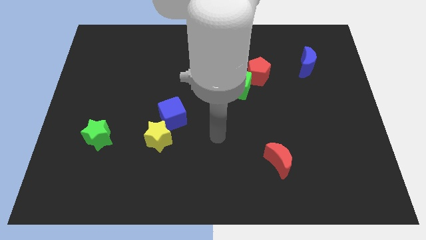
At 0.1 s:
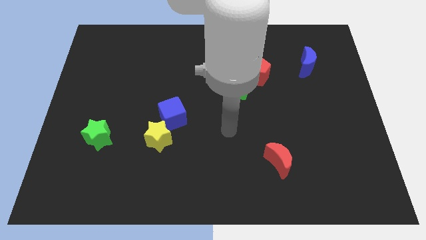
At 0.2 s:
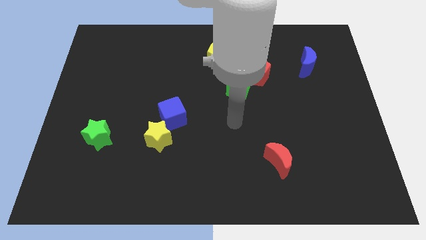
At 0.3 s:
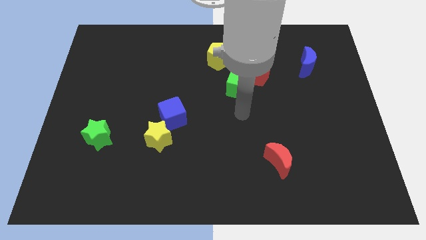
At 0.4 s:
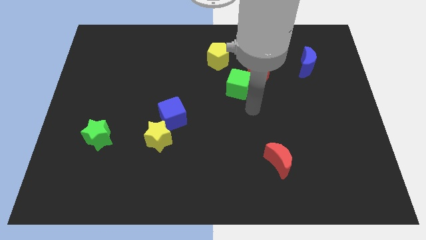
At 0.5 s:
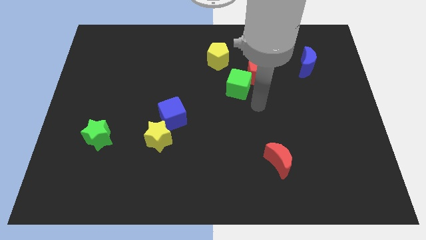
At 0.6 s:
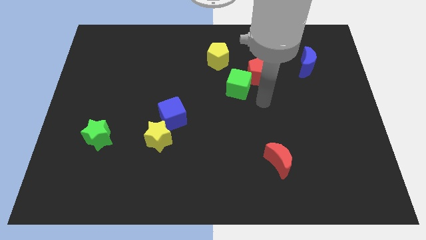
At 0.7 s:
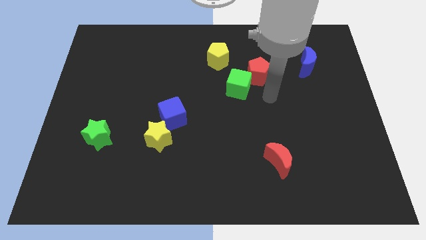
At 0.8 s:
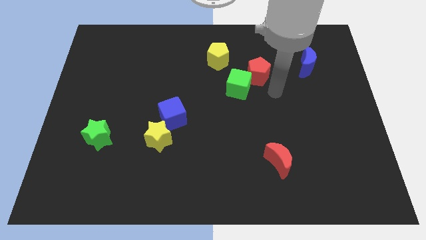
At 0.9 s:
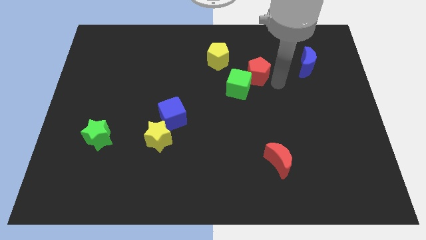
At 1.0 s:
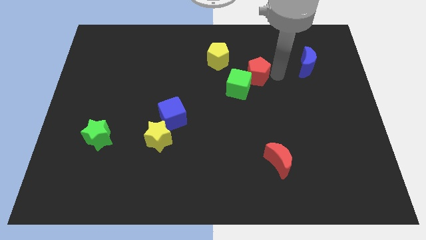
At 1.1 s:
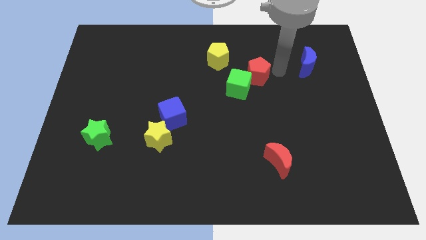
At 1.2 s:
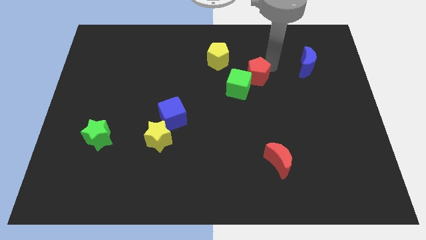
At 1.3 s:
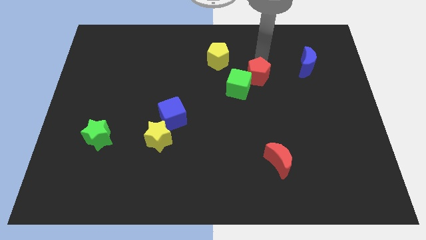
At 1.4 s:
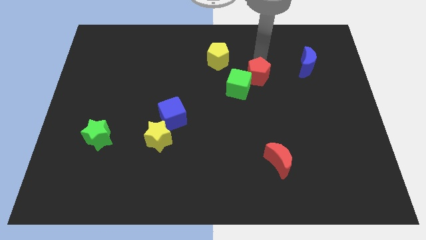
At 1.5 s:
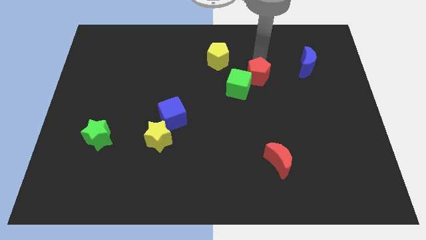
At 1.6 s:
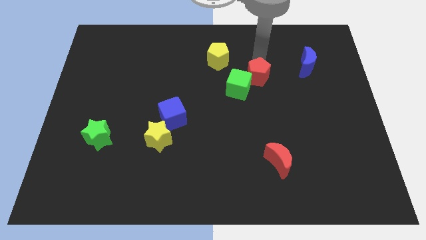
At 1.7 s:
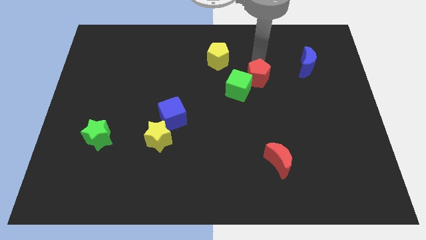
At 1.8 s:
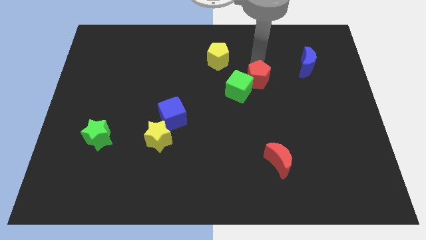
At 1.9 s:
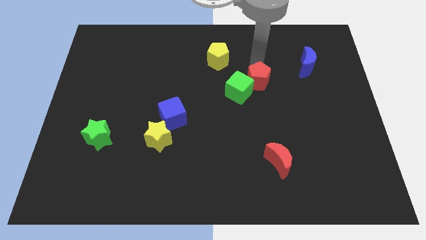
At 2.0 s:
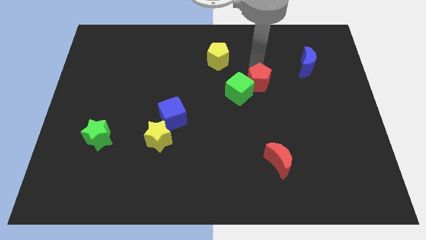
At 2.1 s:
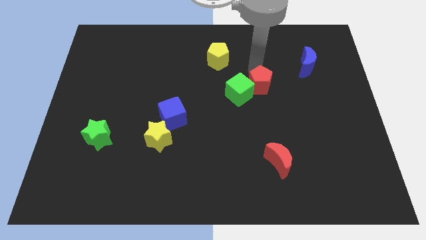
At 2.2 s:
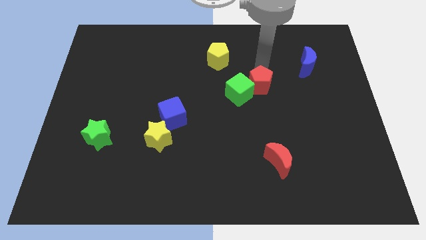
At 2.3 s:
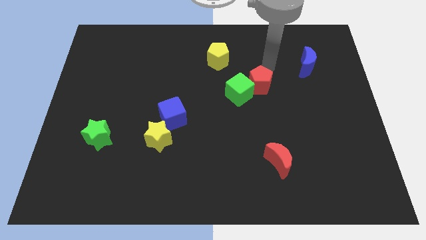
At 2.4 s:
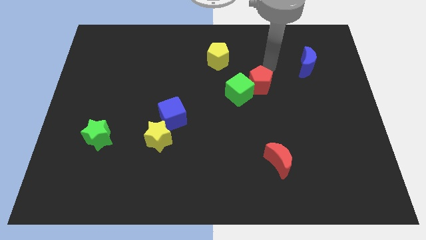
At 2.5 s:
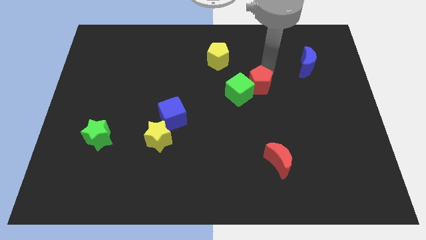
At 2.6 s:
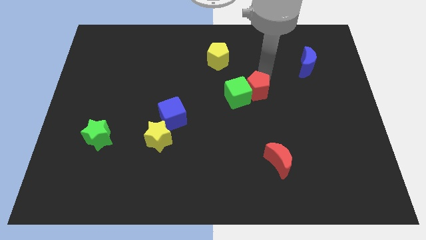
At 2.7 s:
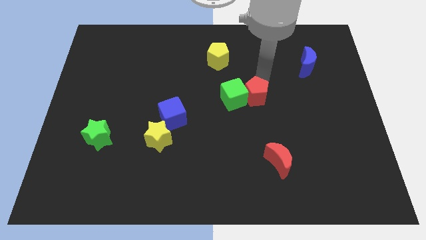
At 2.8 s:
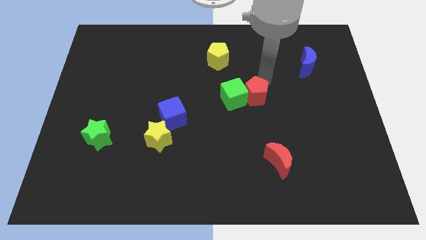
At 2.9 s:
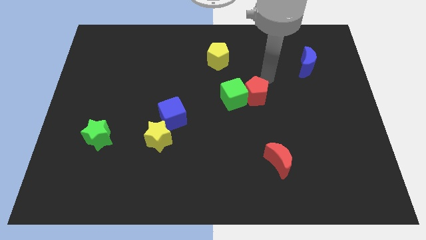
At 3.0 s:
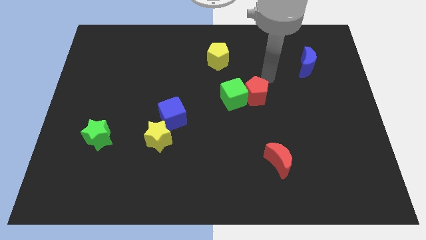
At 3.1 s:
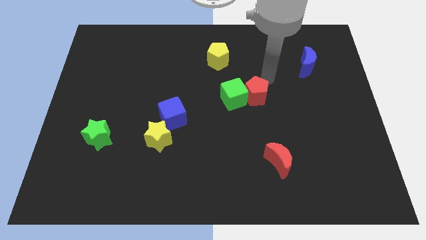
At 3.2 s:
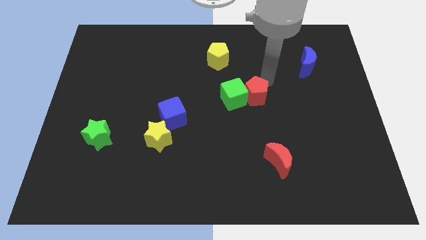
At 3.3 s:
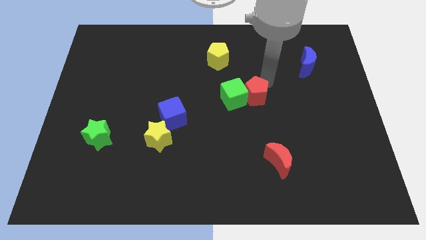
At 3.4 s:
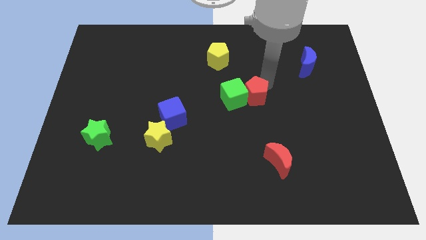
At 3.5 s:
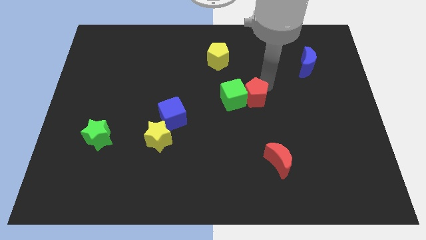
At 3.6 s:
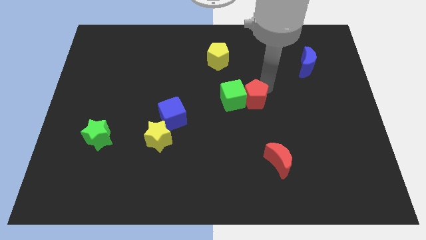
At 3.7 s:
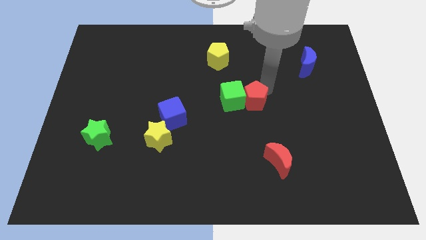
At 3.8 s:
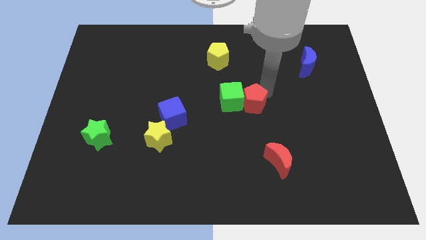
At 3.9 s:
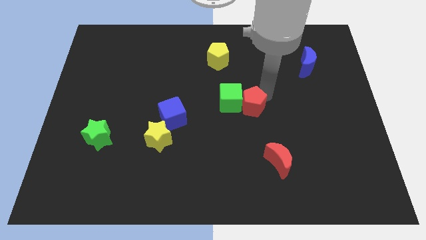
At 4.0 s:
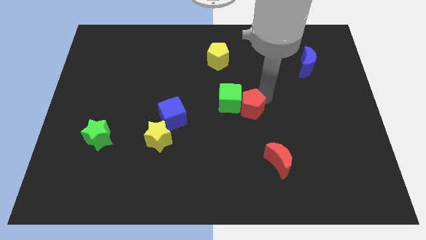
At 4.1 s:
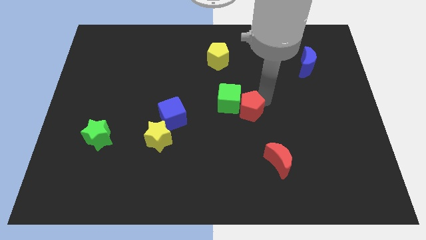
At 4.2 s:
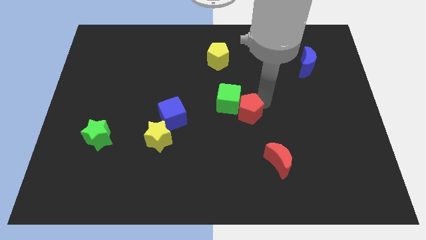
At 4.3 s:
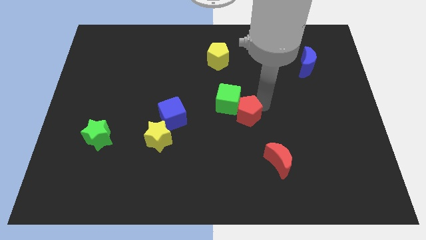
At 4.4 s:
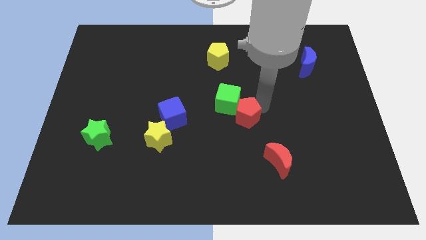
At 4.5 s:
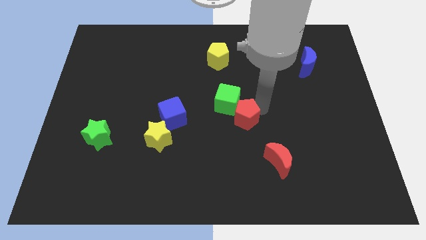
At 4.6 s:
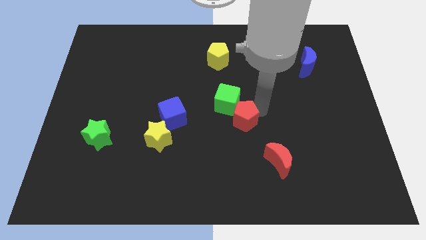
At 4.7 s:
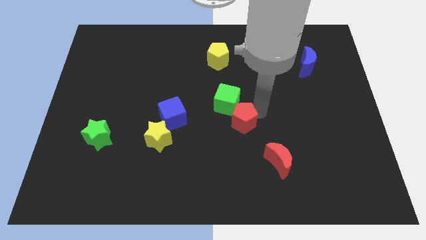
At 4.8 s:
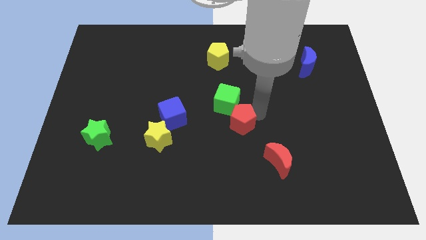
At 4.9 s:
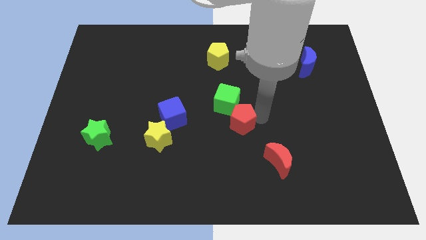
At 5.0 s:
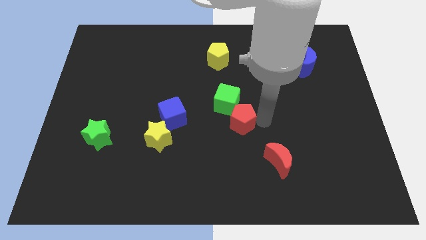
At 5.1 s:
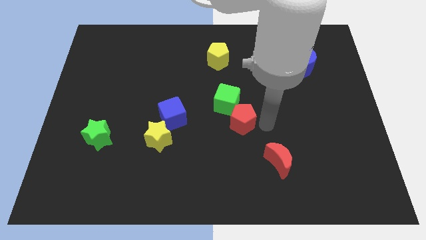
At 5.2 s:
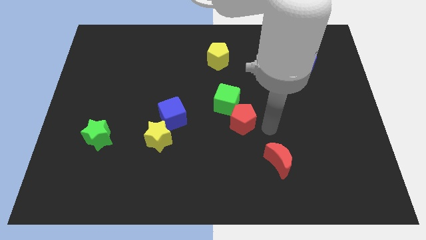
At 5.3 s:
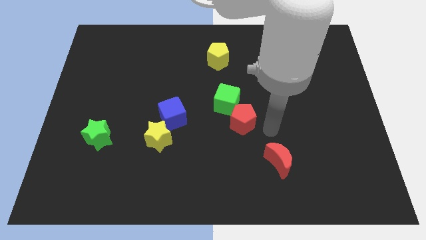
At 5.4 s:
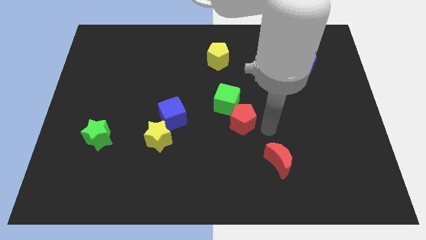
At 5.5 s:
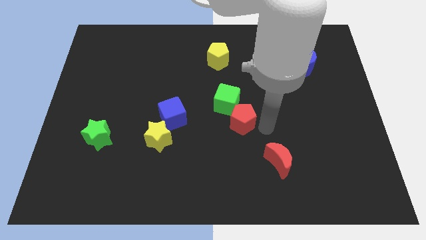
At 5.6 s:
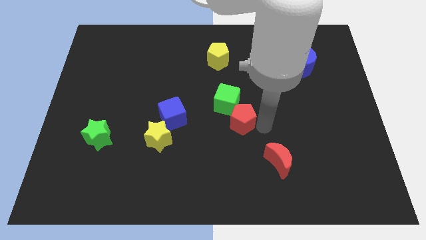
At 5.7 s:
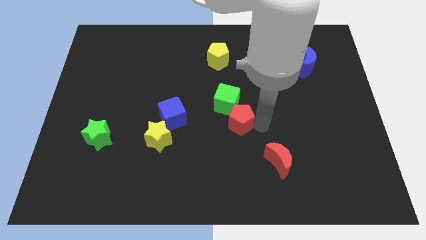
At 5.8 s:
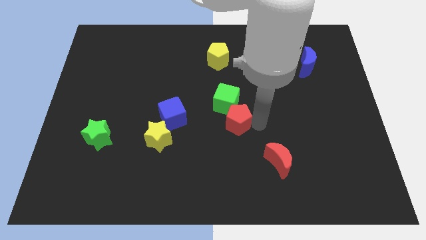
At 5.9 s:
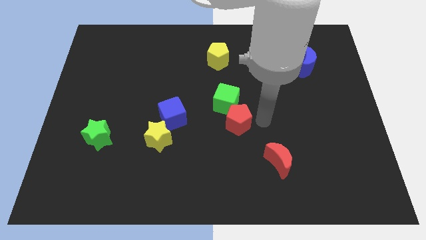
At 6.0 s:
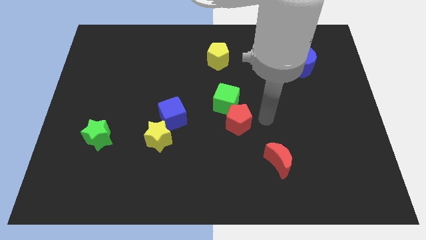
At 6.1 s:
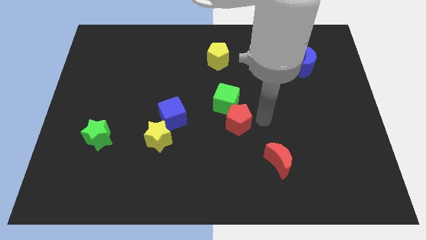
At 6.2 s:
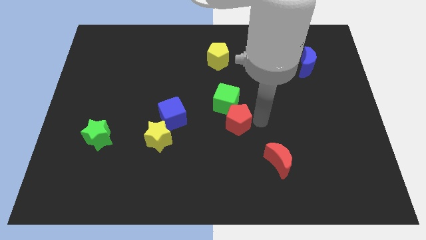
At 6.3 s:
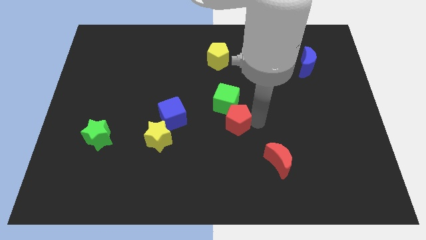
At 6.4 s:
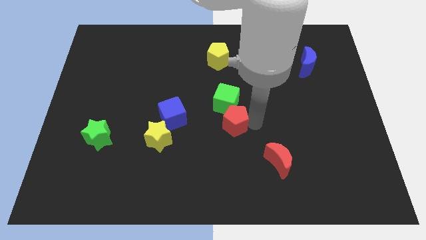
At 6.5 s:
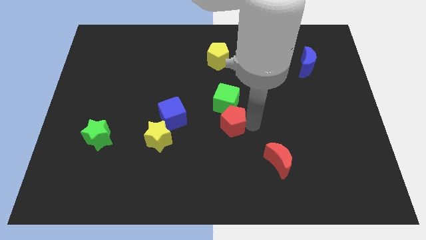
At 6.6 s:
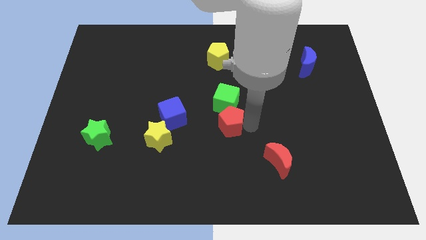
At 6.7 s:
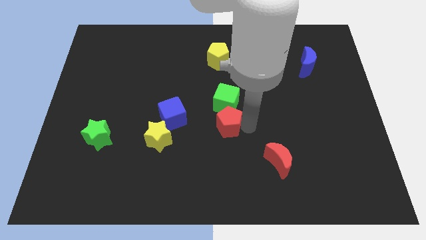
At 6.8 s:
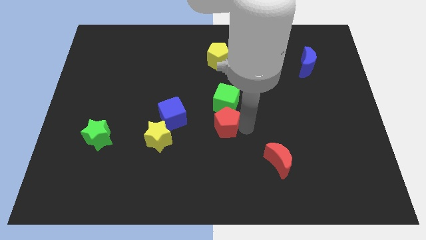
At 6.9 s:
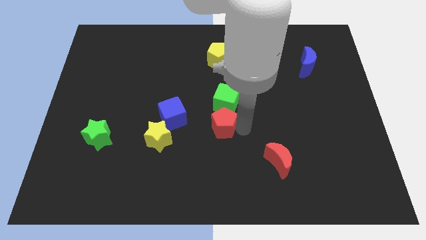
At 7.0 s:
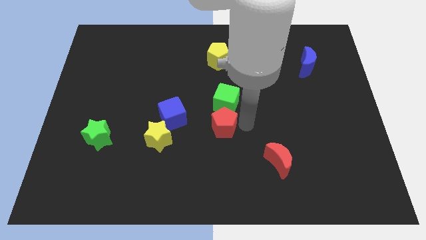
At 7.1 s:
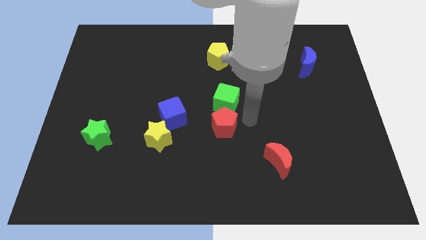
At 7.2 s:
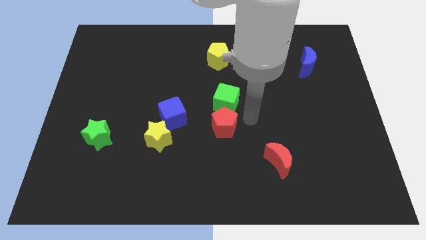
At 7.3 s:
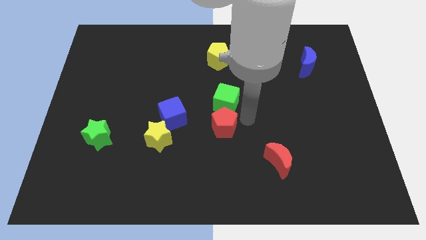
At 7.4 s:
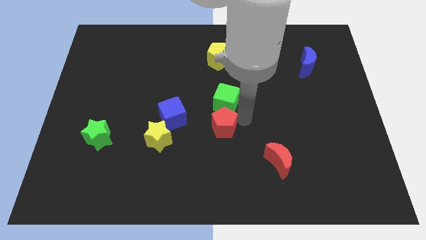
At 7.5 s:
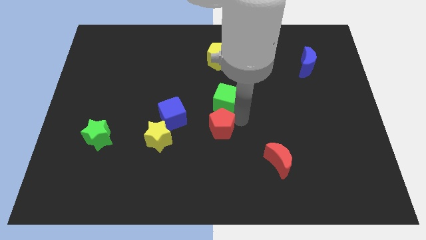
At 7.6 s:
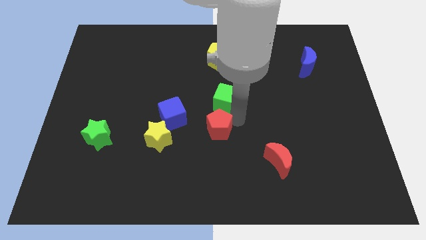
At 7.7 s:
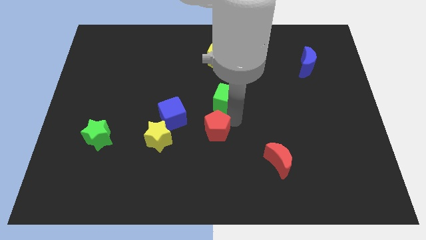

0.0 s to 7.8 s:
put the red pentagon diagonally down and to the right of the blue cube
